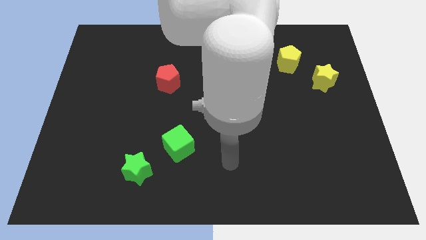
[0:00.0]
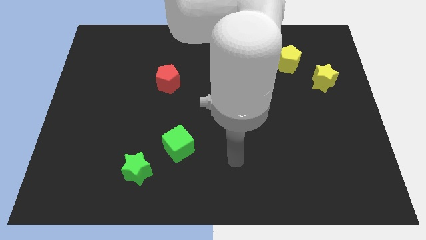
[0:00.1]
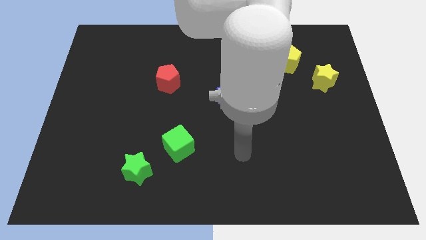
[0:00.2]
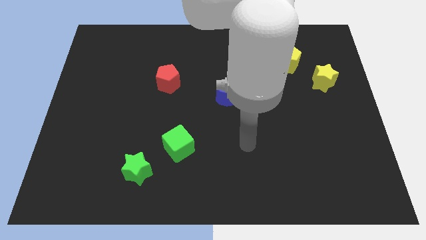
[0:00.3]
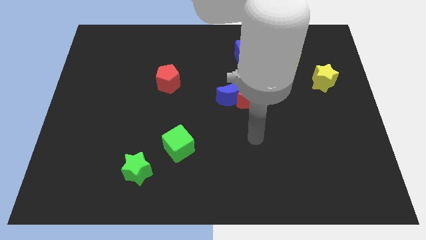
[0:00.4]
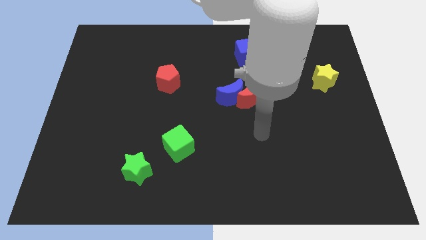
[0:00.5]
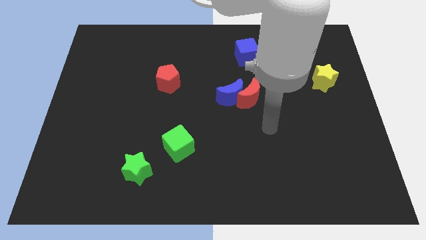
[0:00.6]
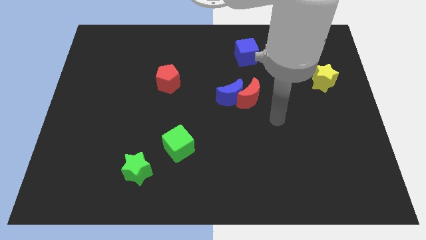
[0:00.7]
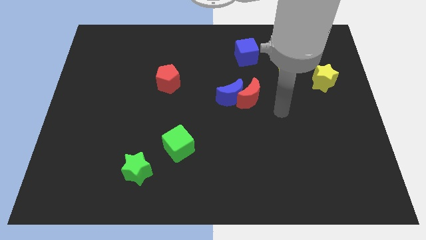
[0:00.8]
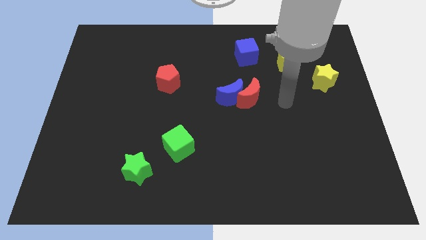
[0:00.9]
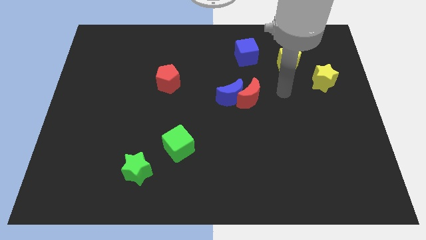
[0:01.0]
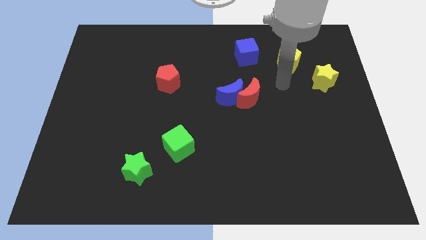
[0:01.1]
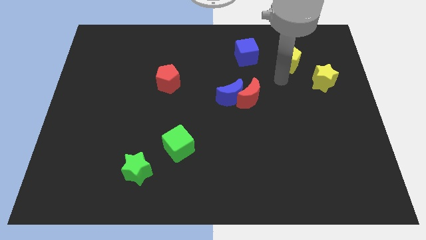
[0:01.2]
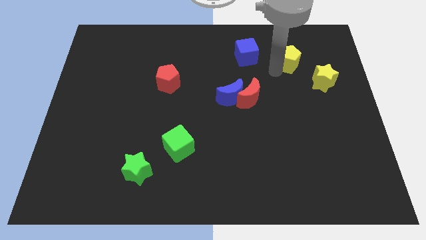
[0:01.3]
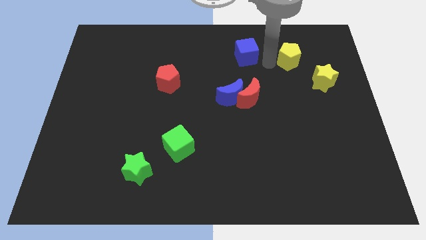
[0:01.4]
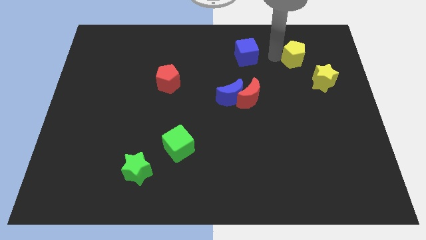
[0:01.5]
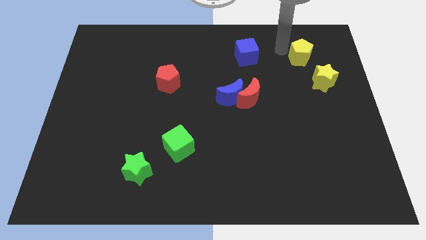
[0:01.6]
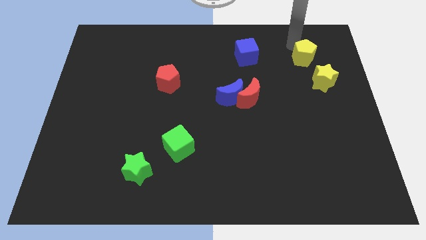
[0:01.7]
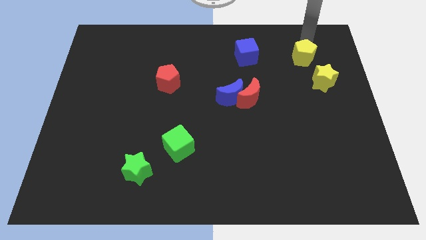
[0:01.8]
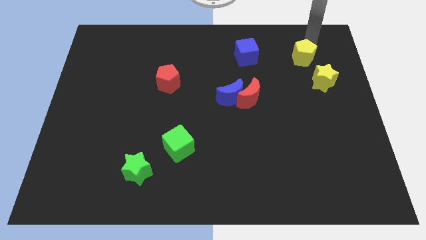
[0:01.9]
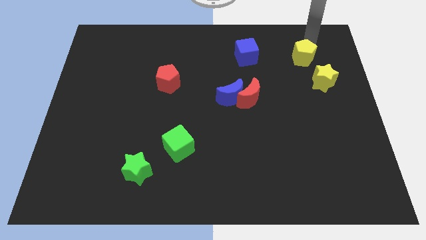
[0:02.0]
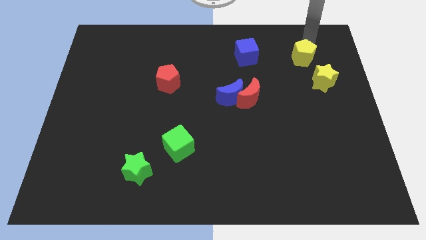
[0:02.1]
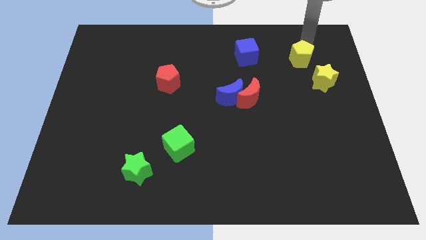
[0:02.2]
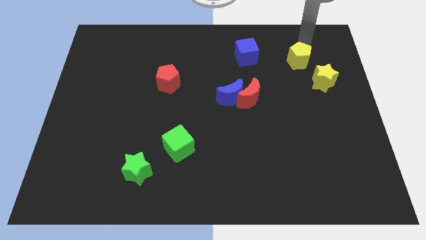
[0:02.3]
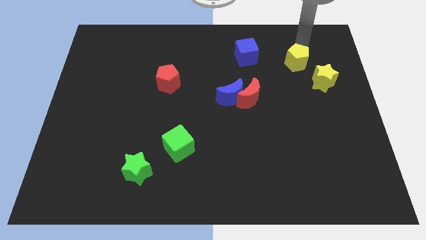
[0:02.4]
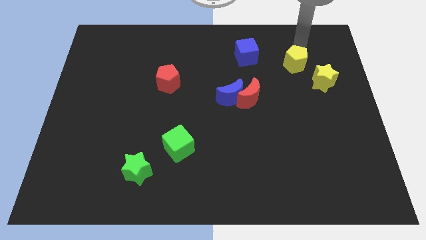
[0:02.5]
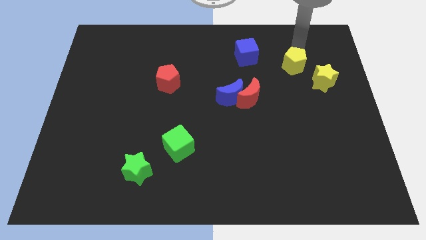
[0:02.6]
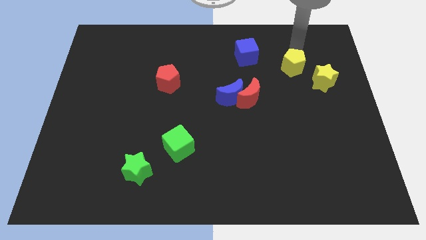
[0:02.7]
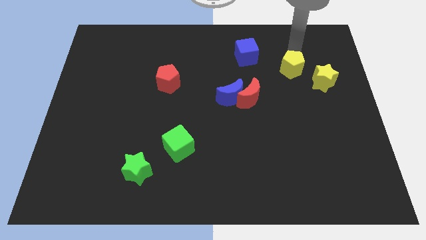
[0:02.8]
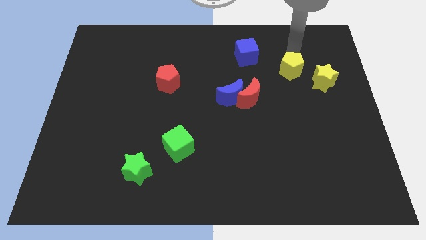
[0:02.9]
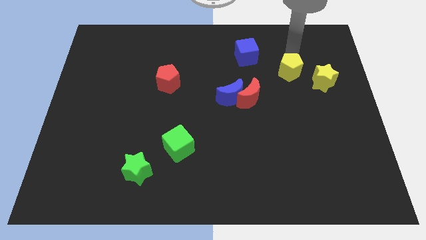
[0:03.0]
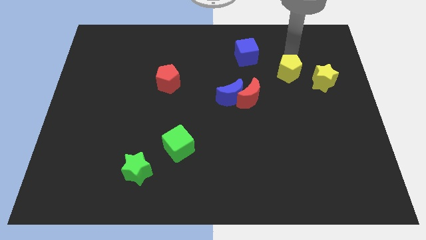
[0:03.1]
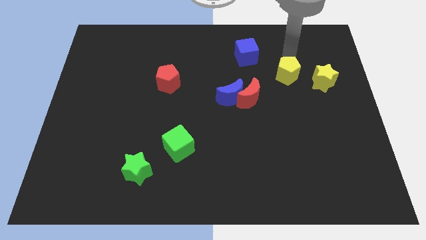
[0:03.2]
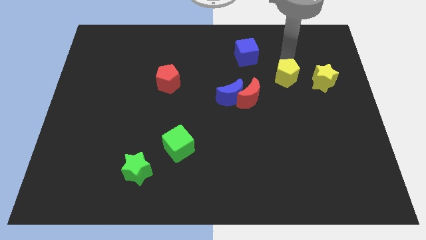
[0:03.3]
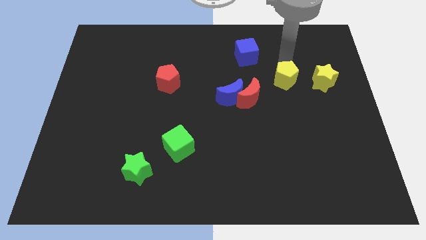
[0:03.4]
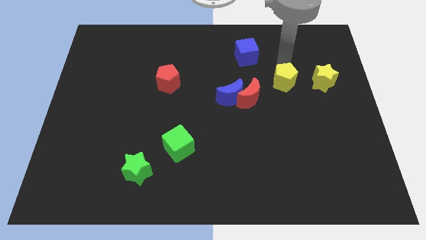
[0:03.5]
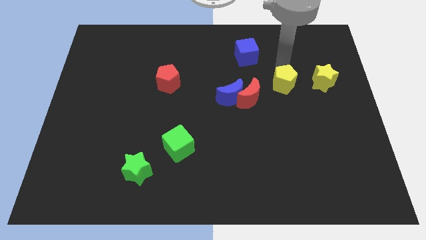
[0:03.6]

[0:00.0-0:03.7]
slightly push the yellow pentagon down

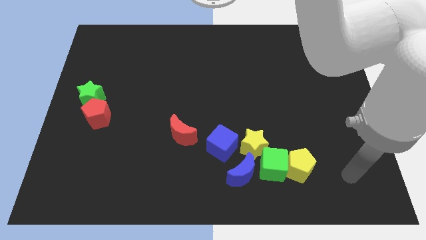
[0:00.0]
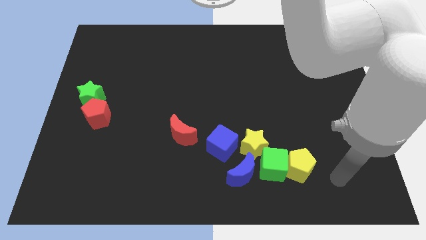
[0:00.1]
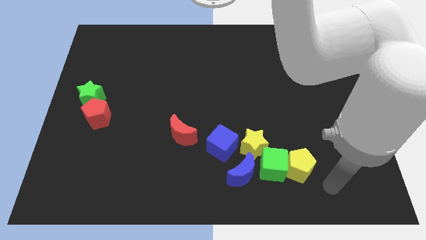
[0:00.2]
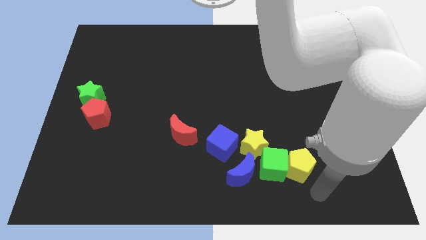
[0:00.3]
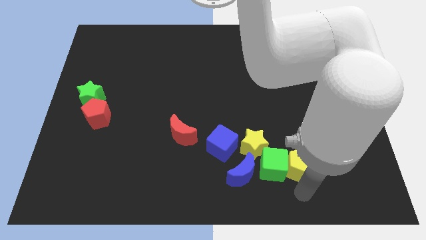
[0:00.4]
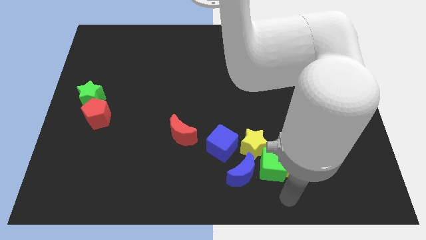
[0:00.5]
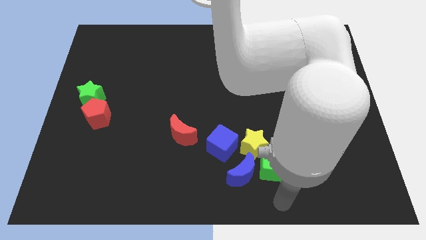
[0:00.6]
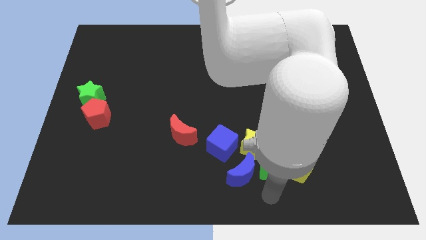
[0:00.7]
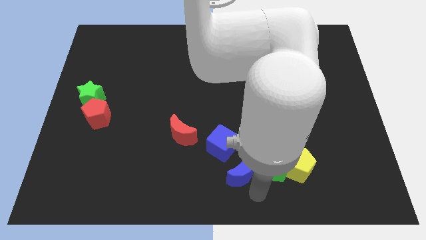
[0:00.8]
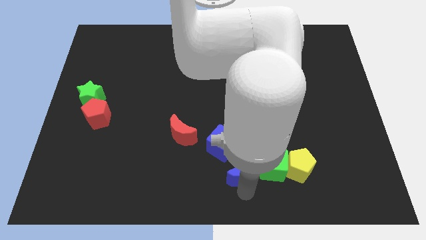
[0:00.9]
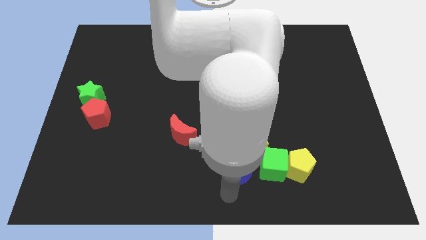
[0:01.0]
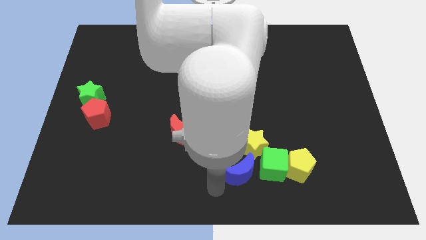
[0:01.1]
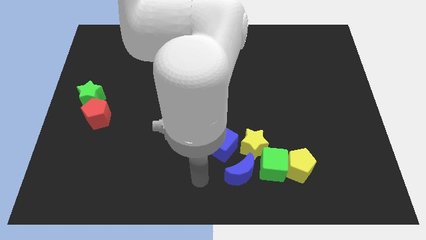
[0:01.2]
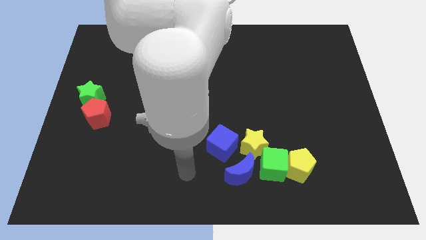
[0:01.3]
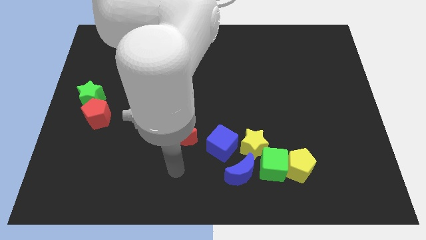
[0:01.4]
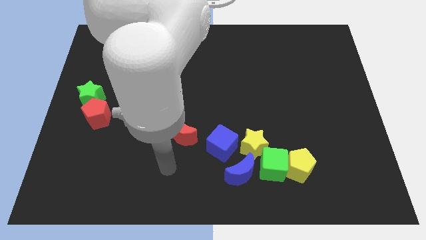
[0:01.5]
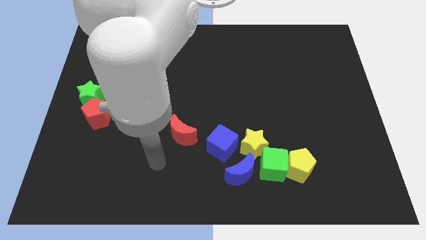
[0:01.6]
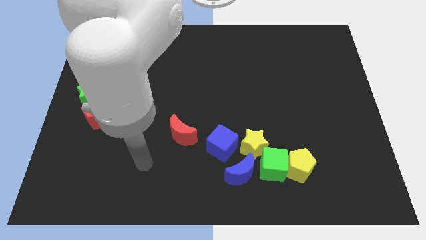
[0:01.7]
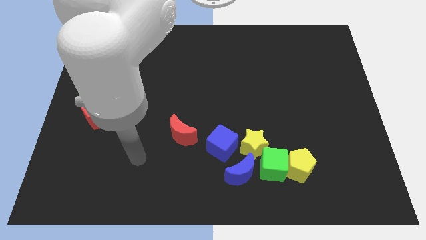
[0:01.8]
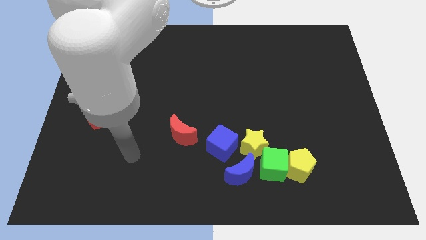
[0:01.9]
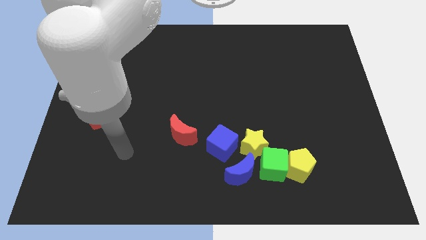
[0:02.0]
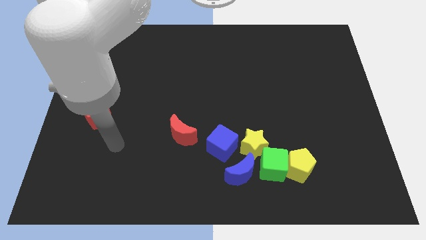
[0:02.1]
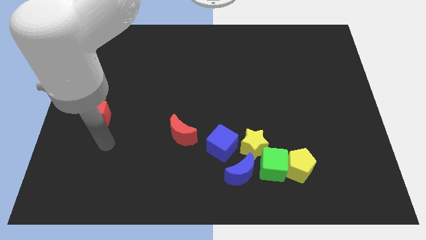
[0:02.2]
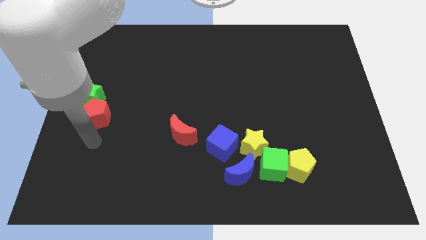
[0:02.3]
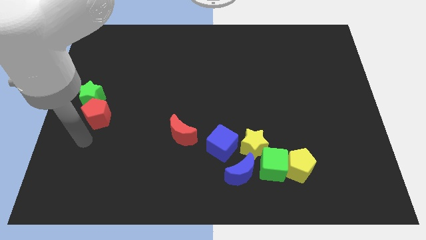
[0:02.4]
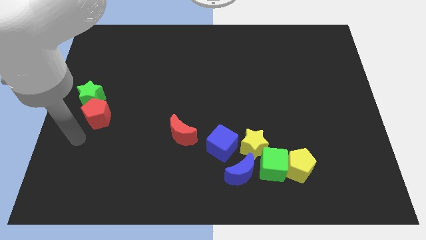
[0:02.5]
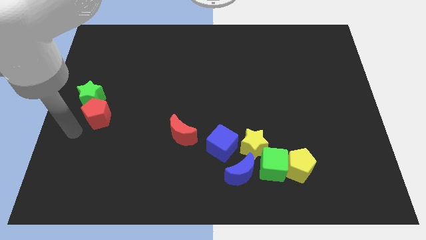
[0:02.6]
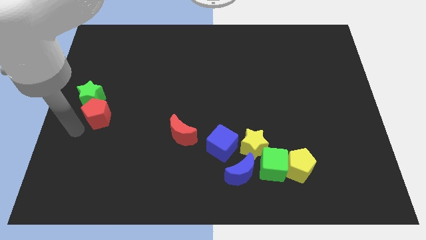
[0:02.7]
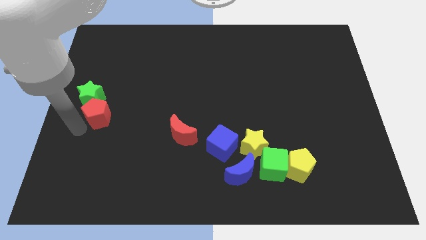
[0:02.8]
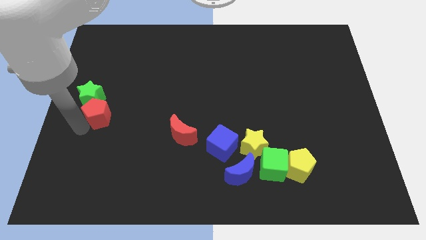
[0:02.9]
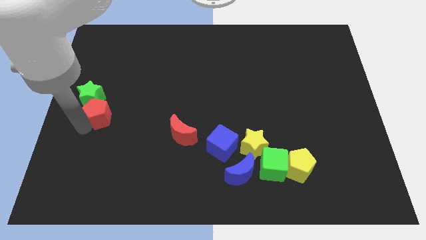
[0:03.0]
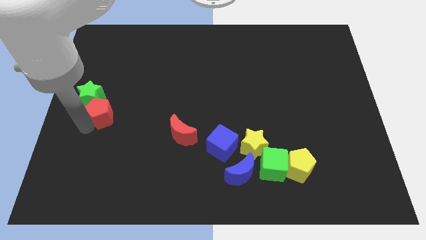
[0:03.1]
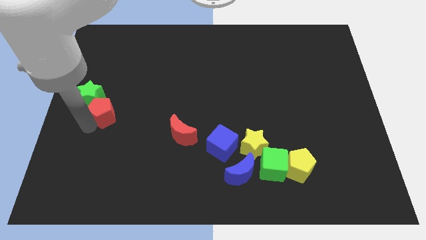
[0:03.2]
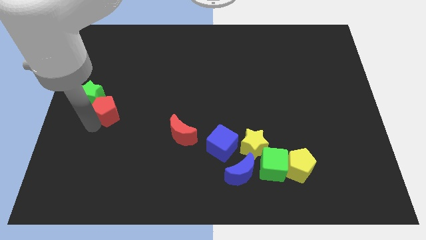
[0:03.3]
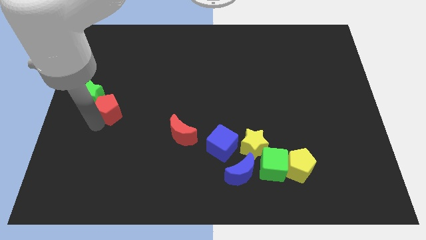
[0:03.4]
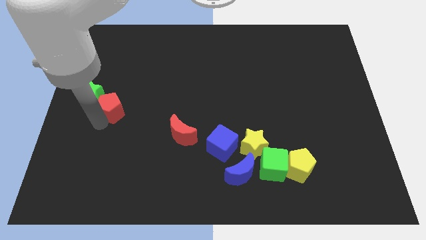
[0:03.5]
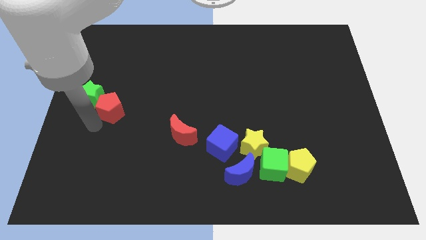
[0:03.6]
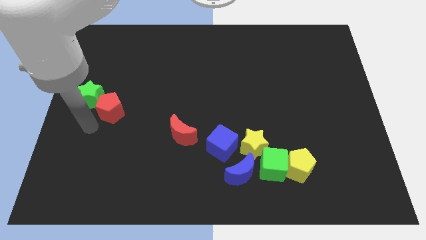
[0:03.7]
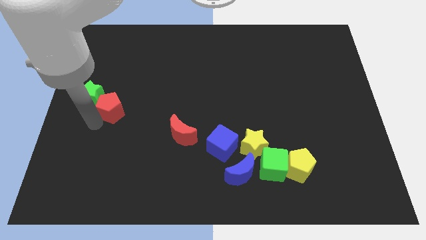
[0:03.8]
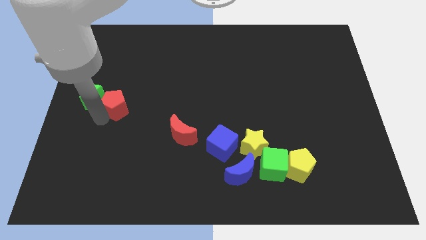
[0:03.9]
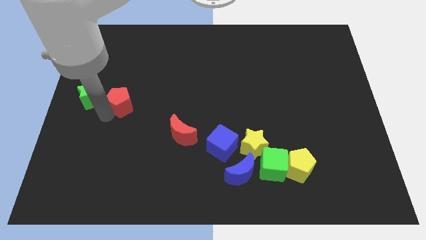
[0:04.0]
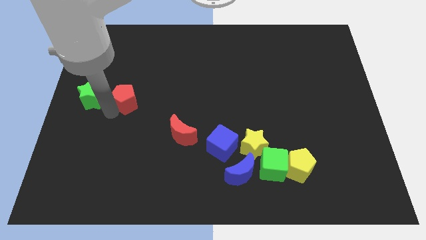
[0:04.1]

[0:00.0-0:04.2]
slide the red pentagon upwards and right slightly
